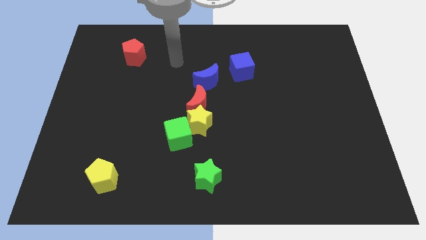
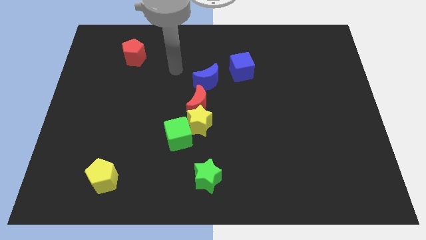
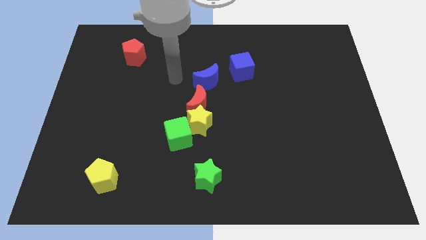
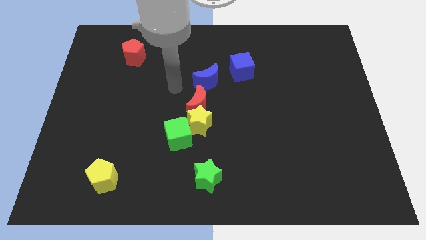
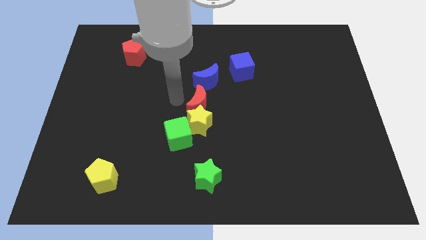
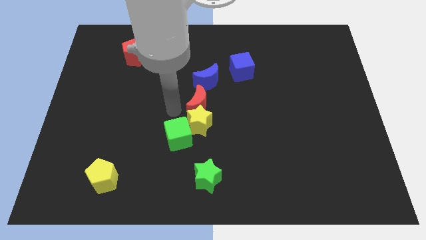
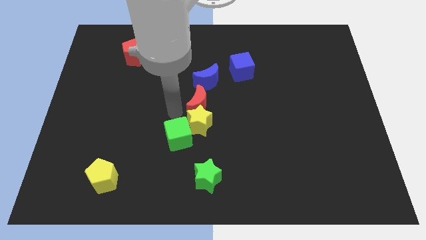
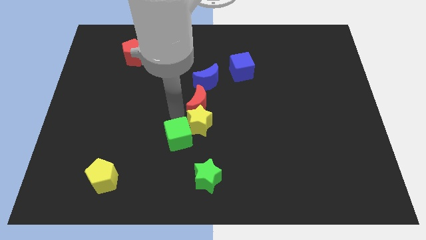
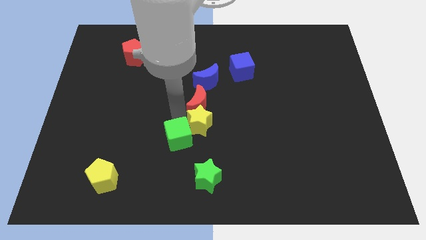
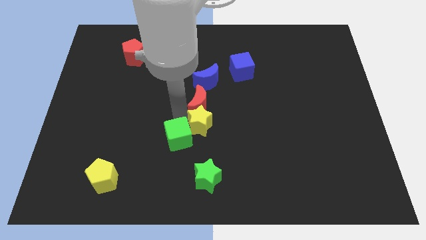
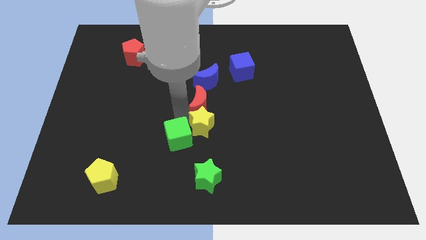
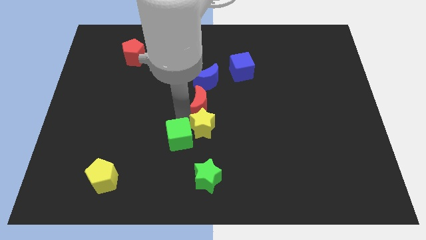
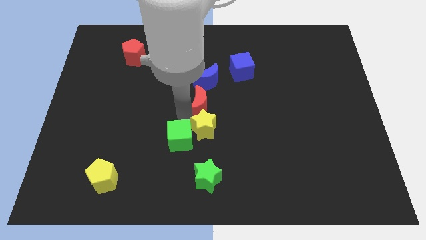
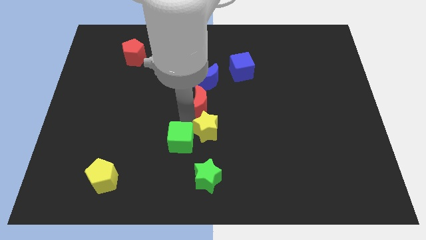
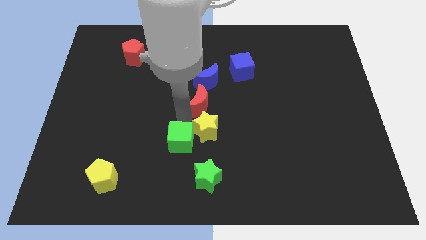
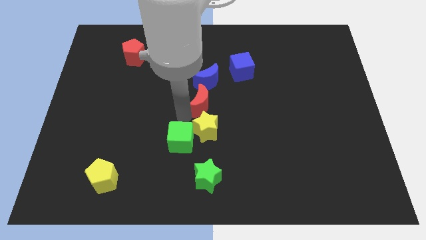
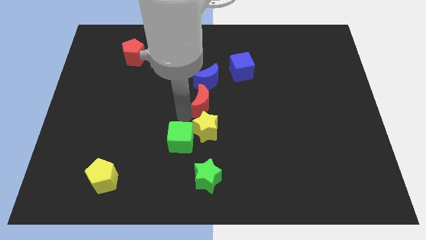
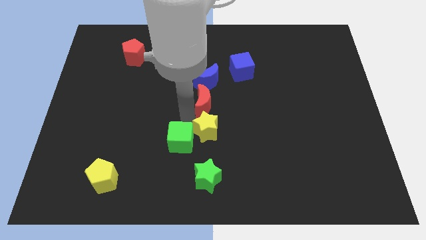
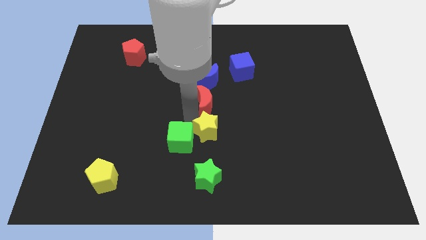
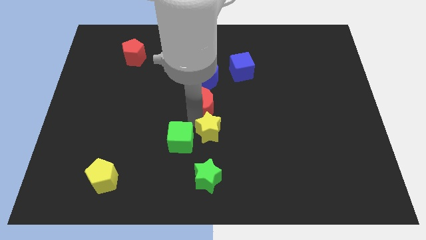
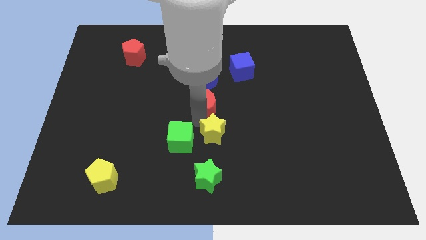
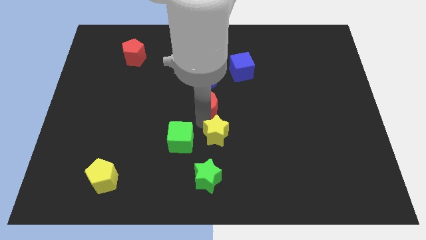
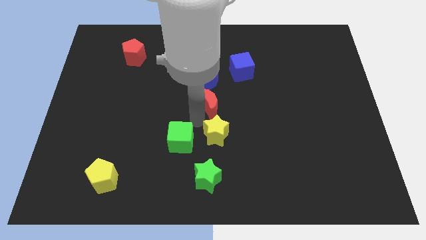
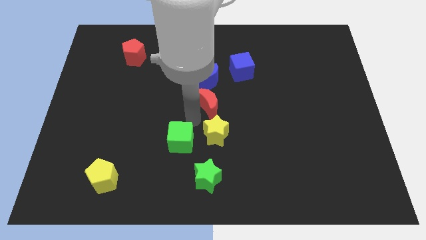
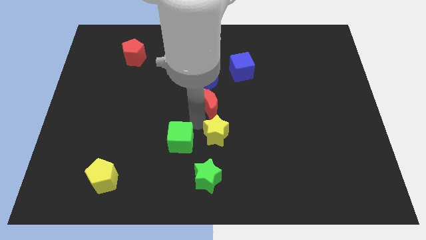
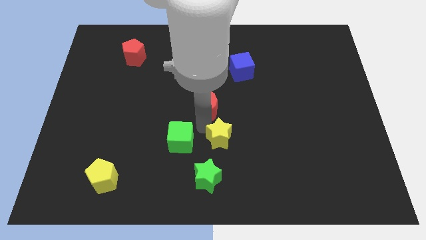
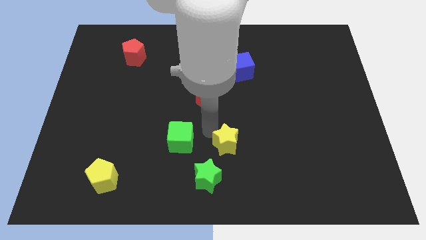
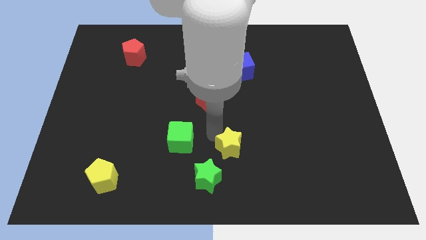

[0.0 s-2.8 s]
move the yellow star away from the green cube and red moon

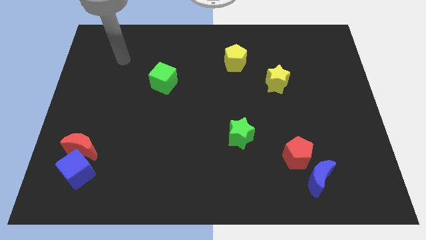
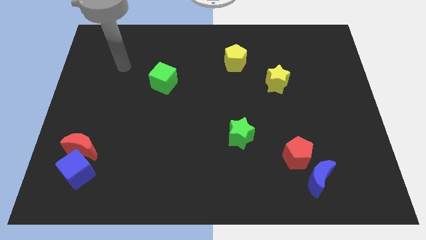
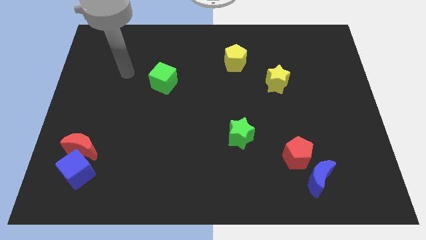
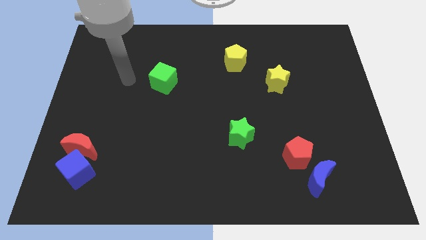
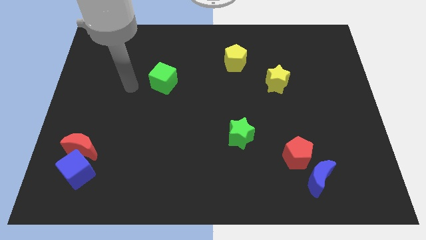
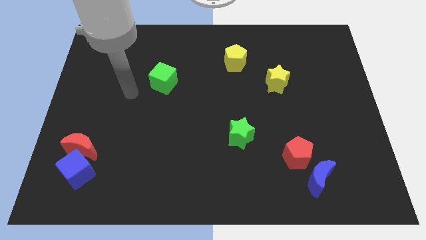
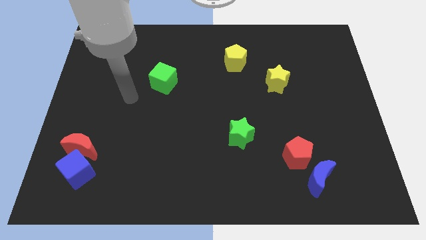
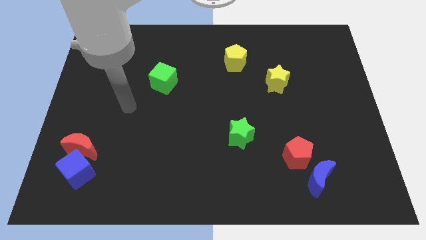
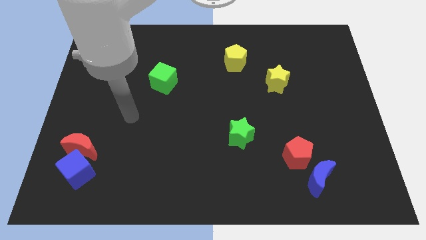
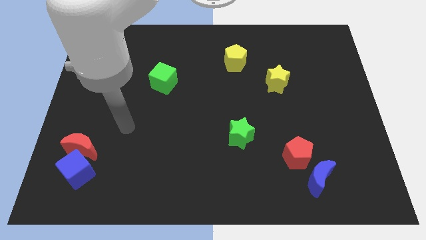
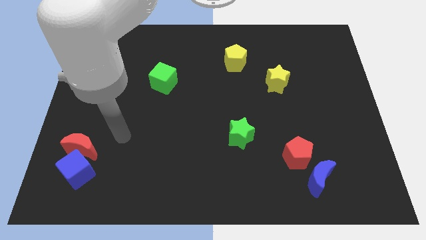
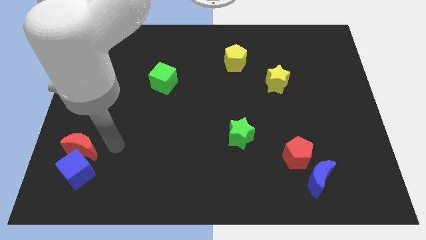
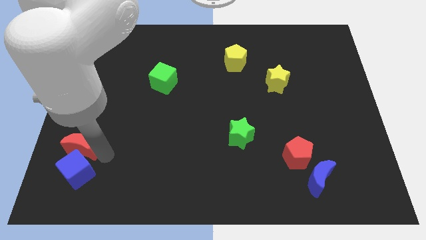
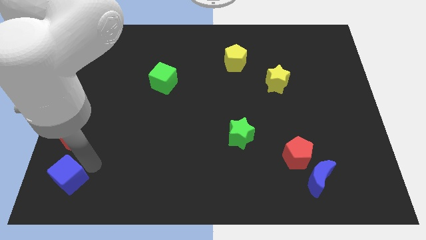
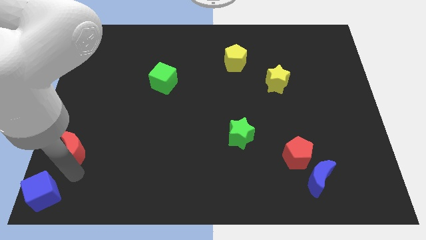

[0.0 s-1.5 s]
pull the red moon apart from the blue cube

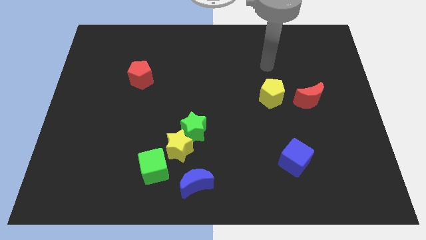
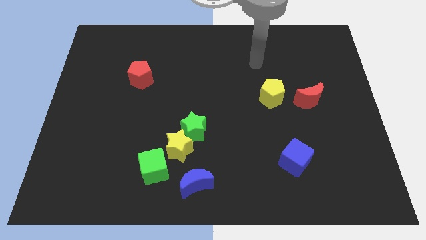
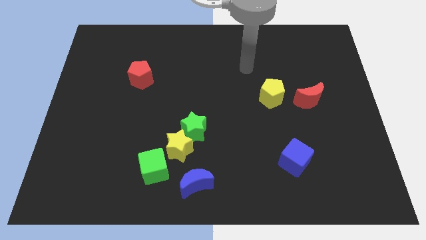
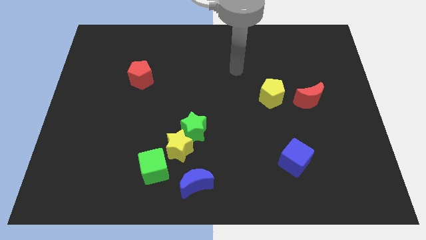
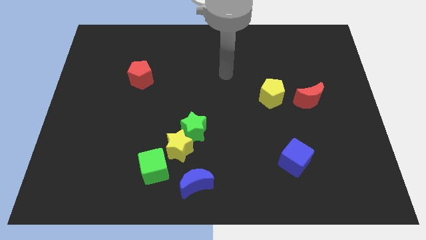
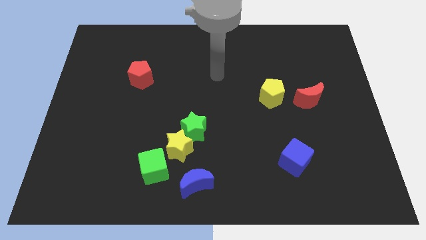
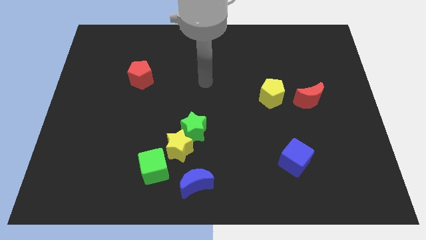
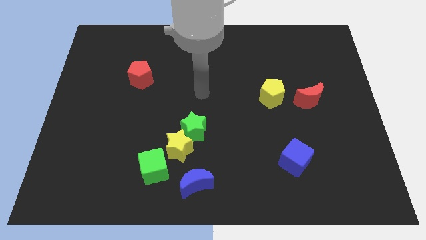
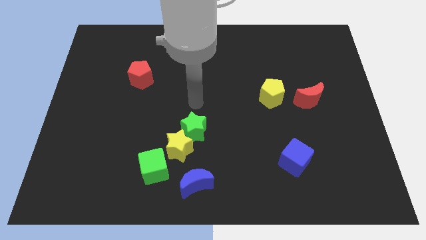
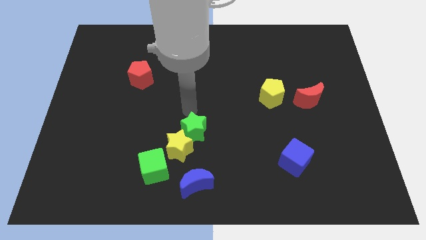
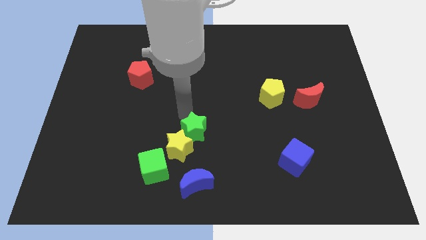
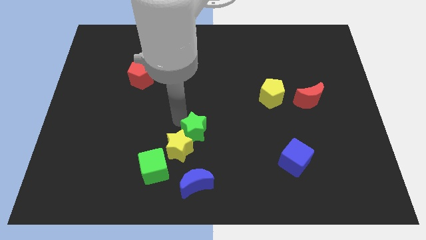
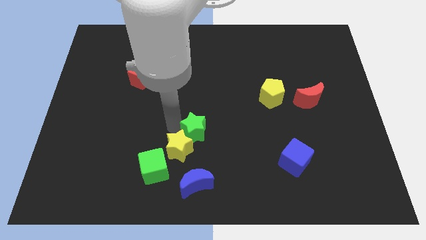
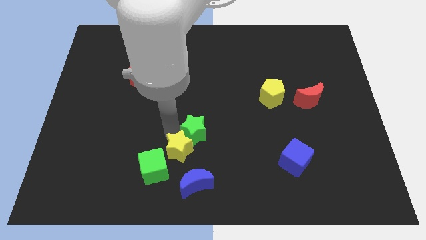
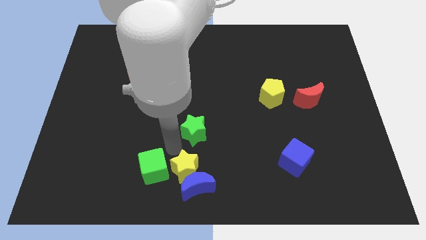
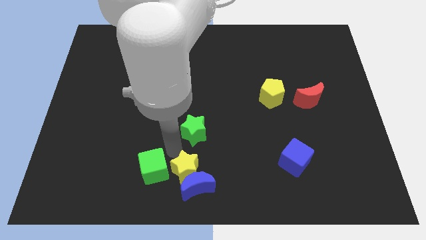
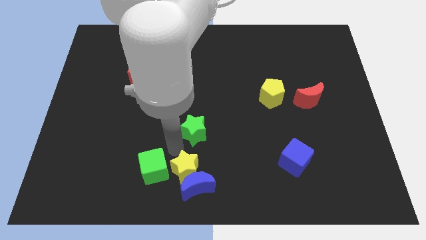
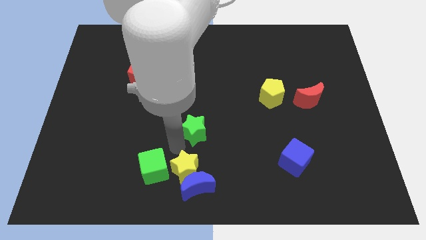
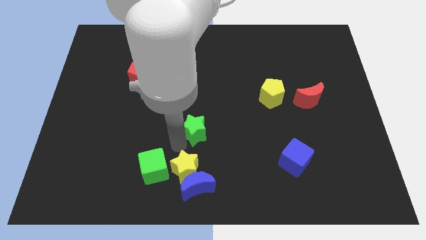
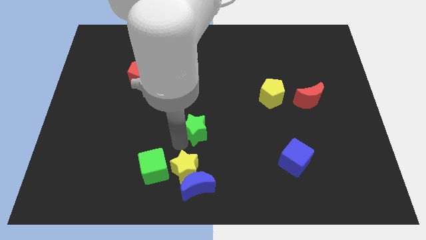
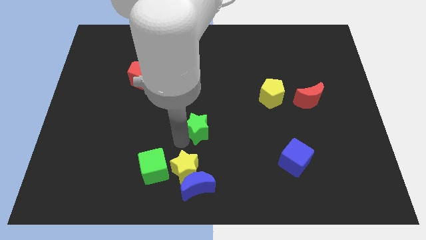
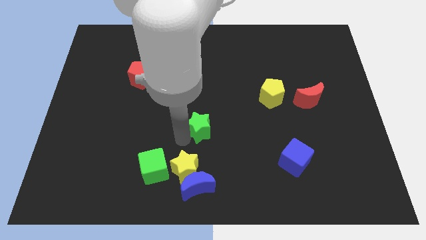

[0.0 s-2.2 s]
pull the green star apart from the yellow star

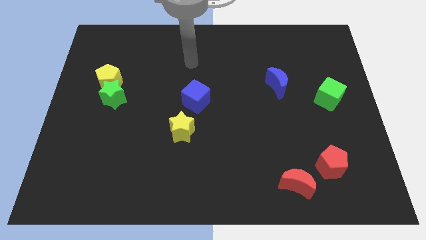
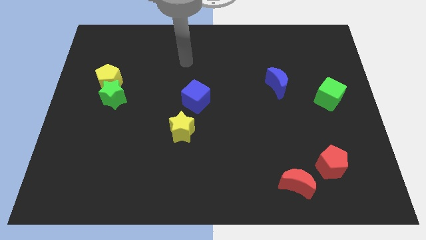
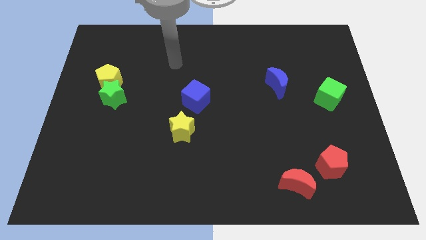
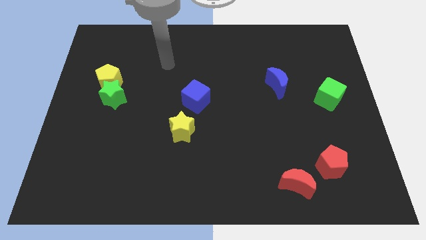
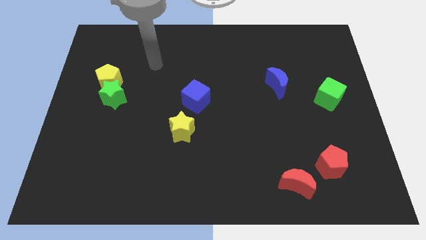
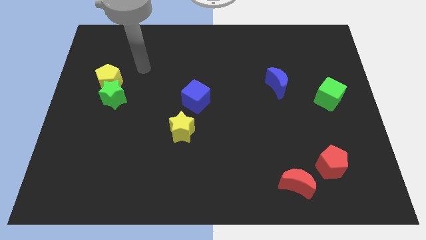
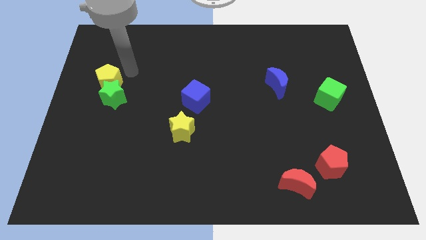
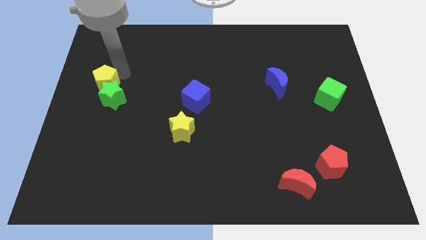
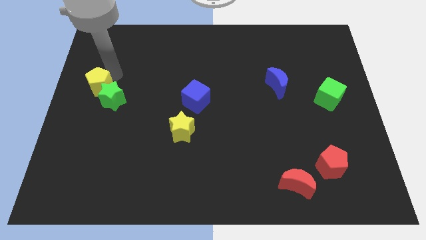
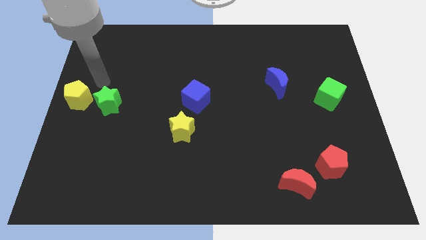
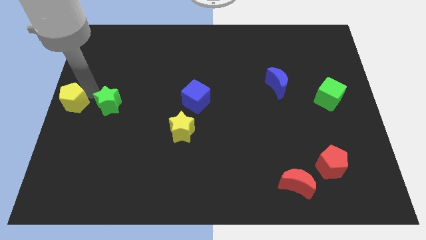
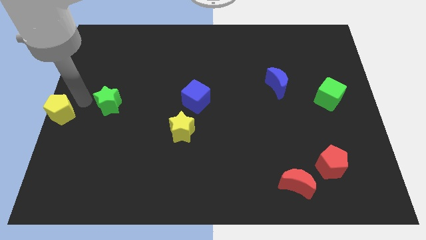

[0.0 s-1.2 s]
separate the green star from the yellow pentagon

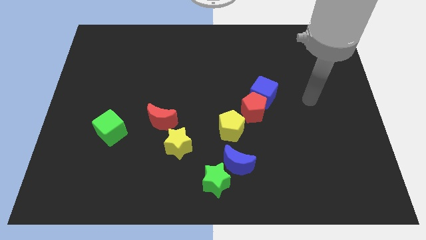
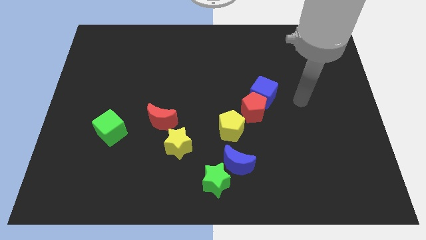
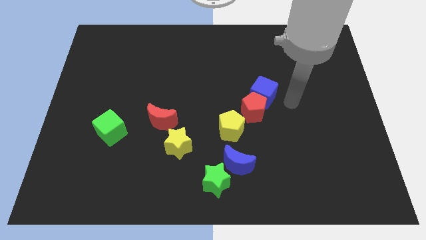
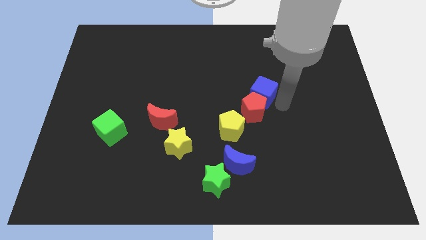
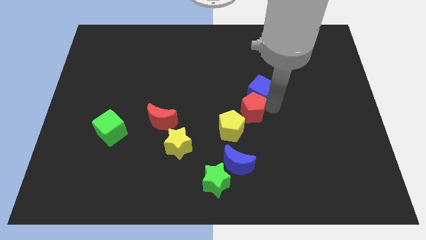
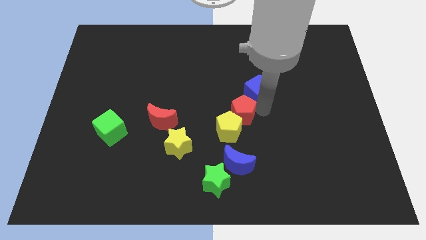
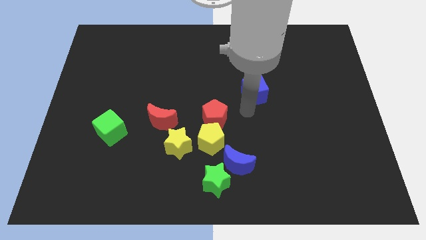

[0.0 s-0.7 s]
move the blue cube away from the red pentagon

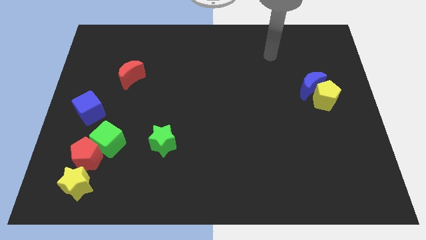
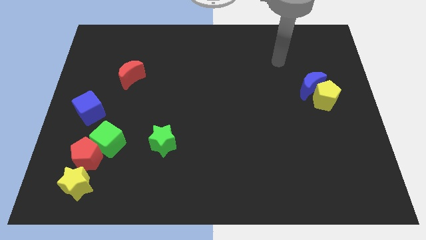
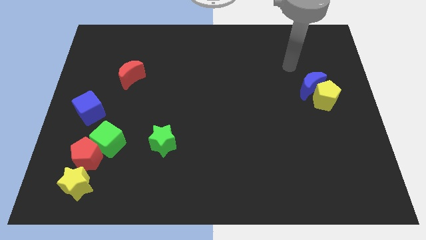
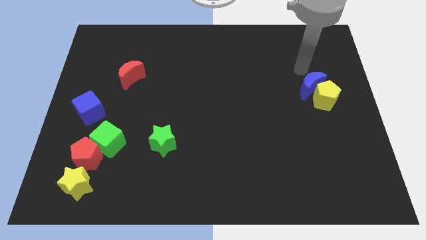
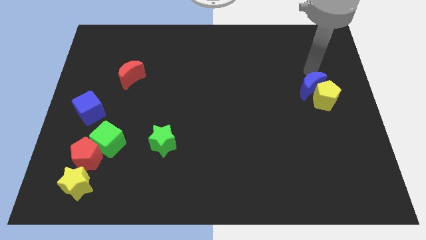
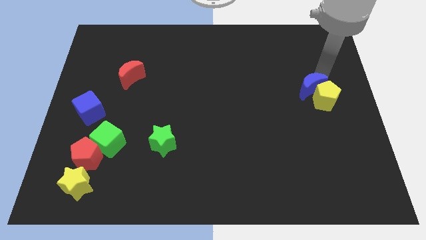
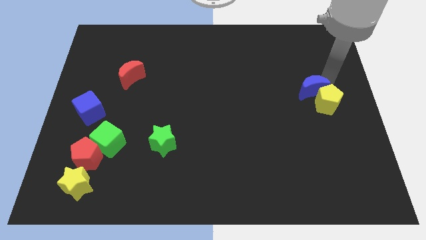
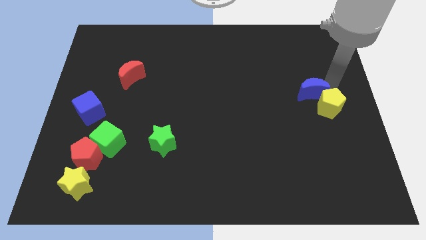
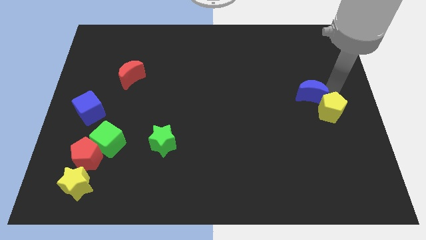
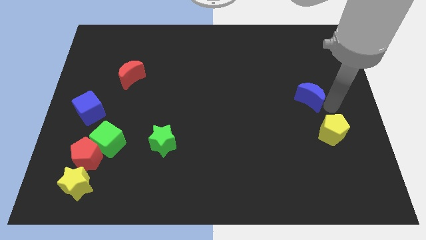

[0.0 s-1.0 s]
pull the blue moon apart from the yellow pentagon
